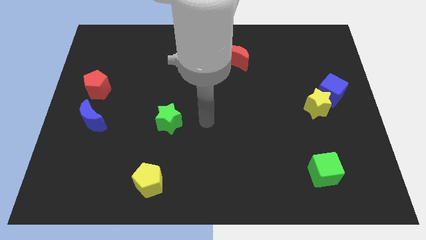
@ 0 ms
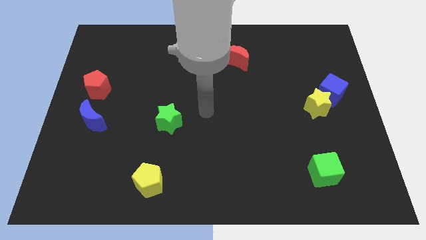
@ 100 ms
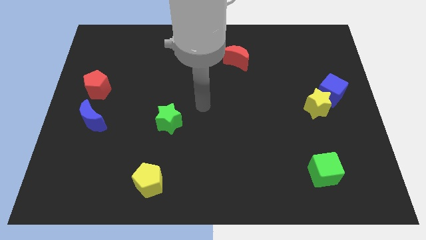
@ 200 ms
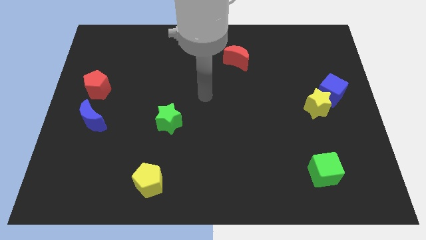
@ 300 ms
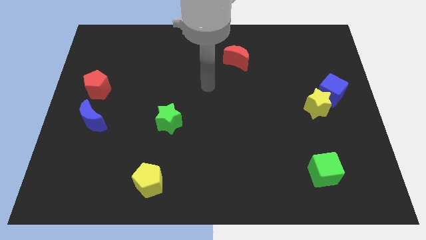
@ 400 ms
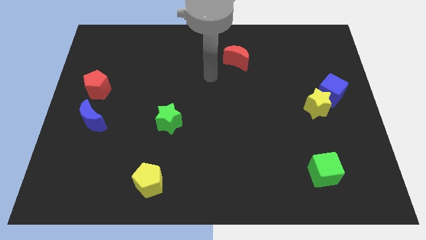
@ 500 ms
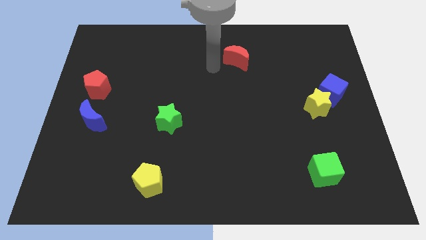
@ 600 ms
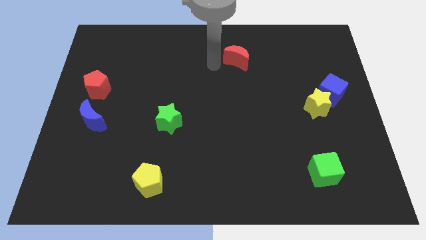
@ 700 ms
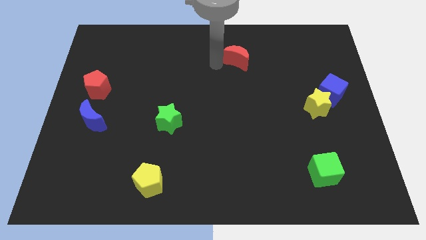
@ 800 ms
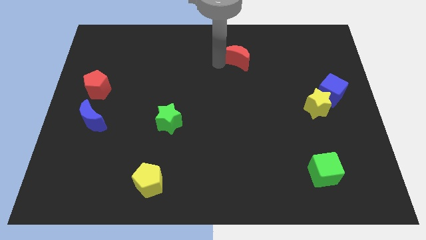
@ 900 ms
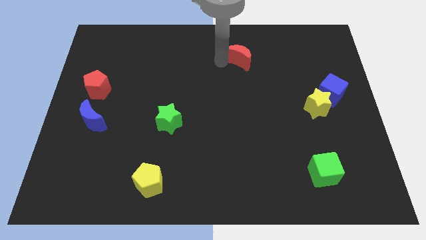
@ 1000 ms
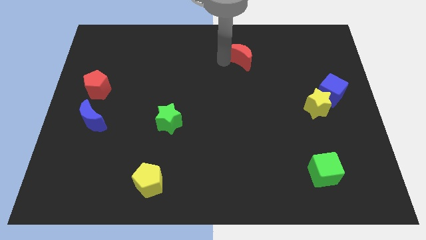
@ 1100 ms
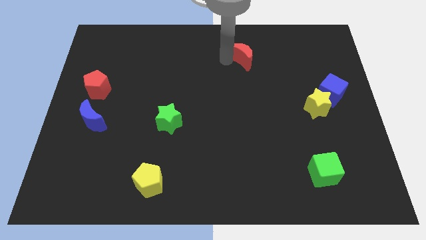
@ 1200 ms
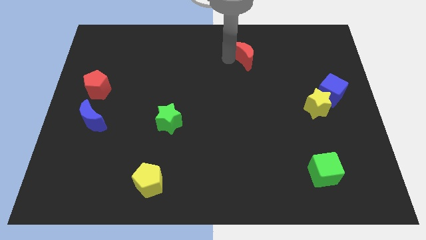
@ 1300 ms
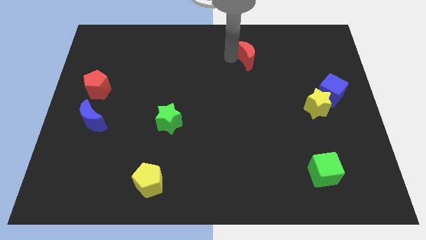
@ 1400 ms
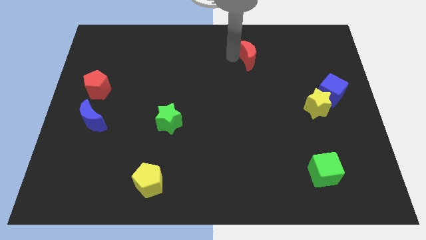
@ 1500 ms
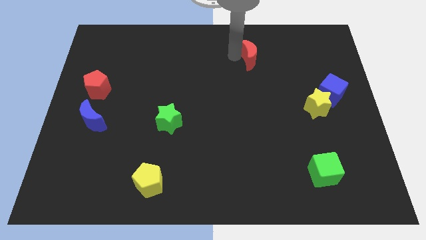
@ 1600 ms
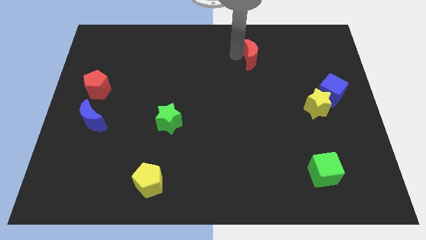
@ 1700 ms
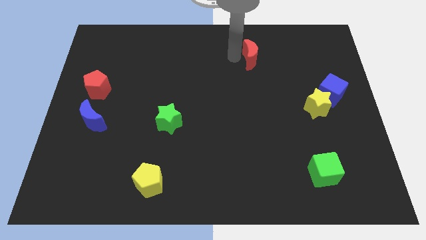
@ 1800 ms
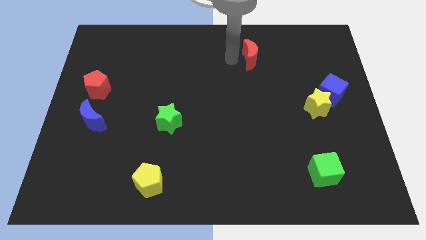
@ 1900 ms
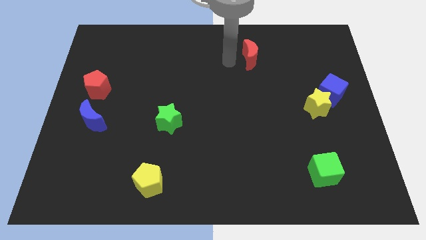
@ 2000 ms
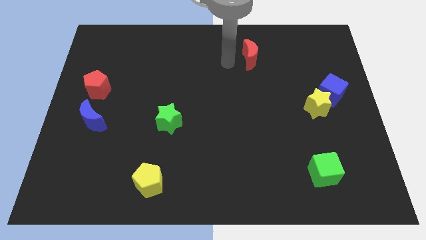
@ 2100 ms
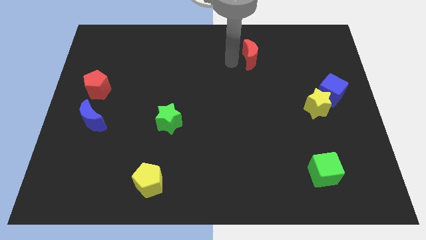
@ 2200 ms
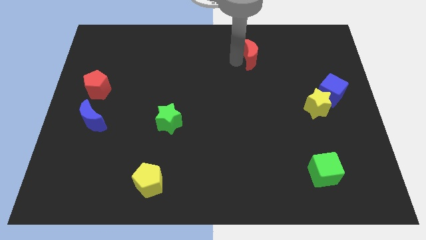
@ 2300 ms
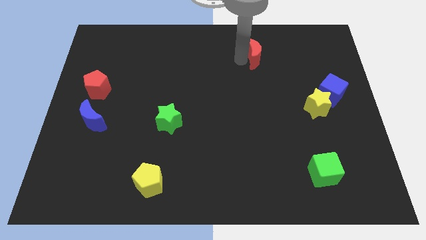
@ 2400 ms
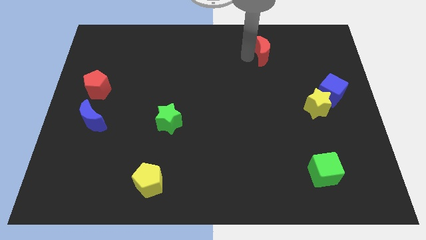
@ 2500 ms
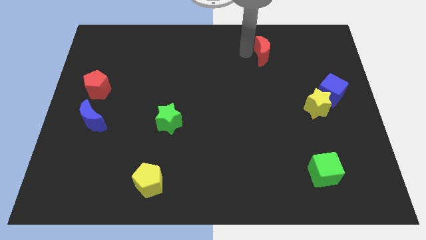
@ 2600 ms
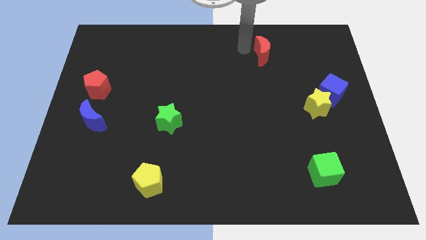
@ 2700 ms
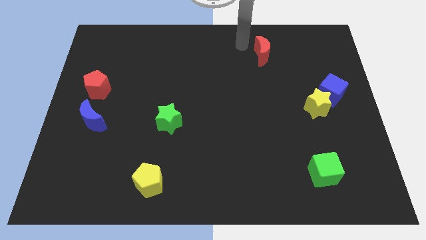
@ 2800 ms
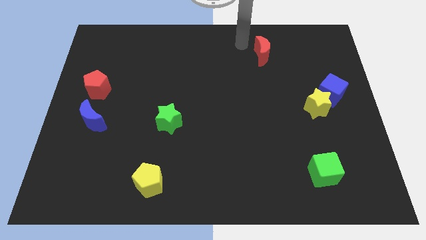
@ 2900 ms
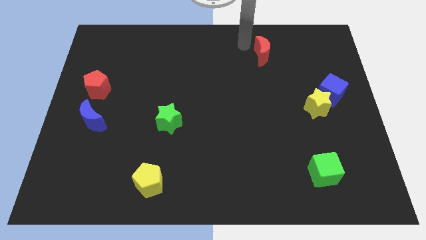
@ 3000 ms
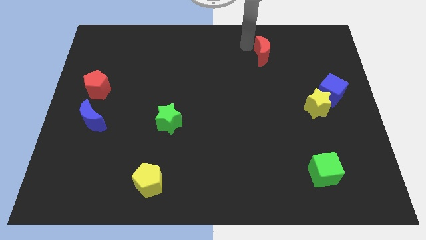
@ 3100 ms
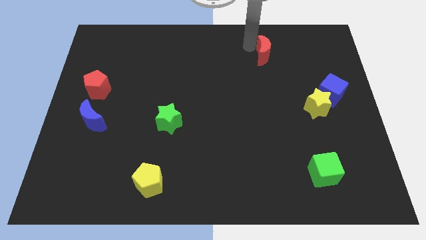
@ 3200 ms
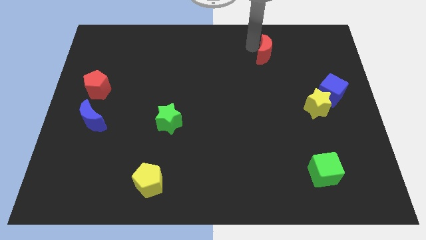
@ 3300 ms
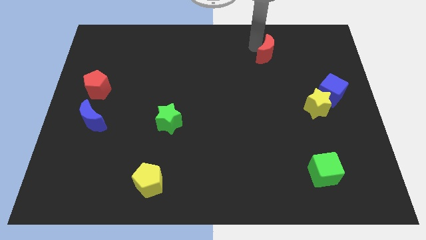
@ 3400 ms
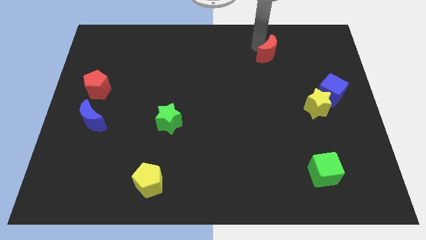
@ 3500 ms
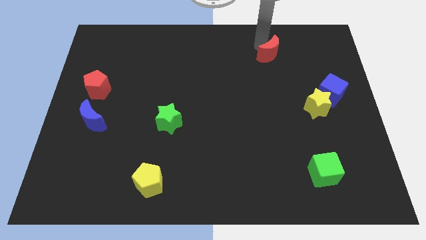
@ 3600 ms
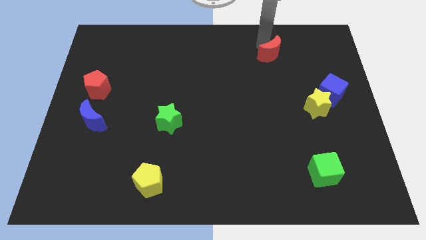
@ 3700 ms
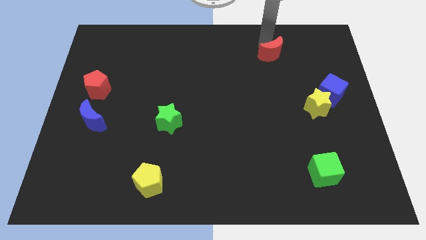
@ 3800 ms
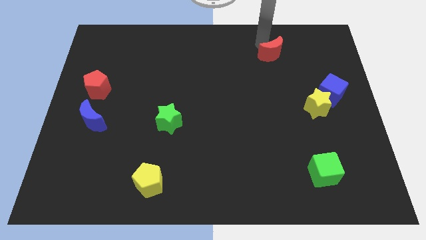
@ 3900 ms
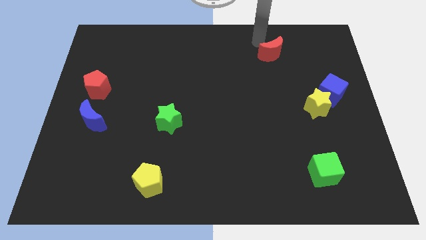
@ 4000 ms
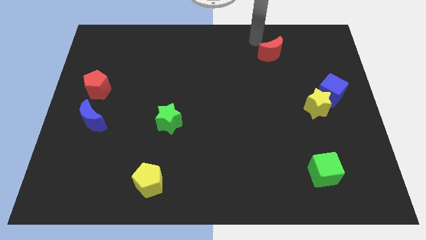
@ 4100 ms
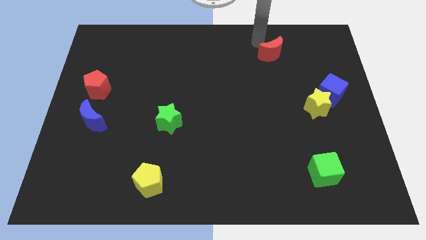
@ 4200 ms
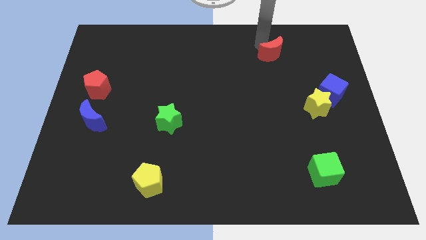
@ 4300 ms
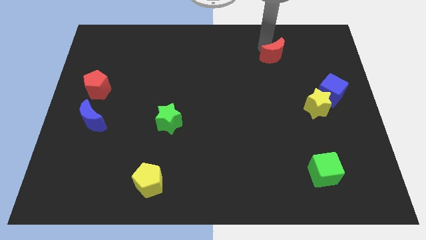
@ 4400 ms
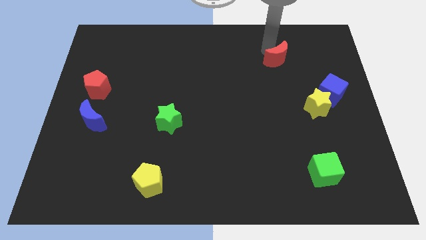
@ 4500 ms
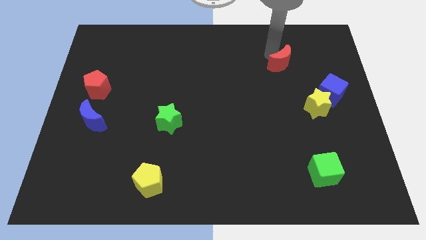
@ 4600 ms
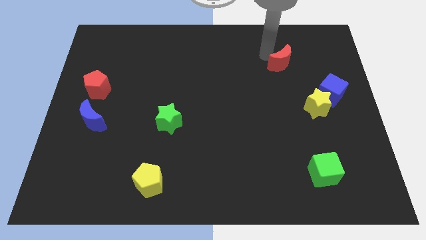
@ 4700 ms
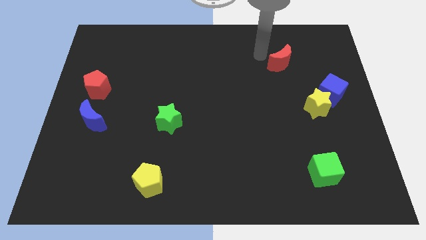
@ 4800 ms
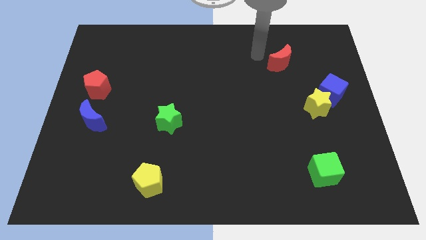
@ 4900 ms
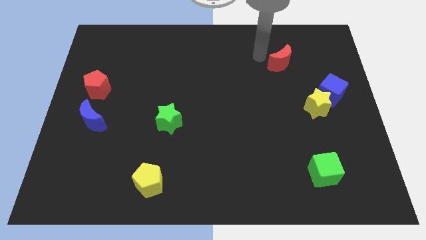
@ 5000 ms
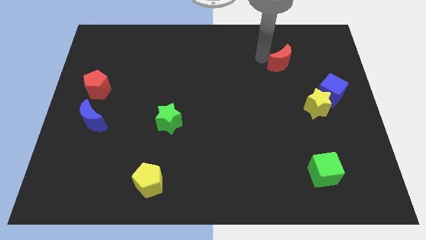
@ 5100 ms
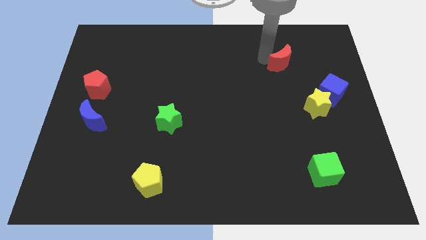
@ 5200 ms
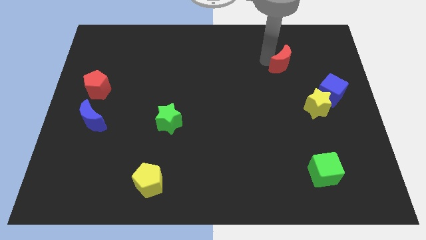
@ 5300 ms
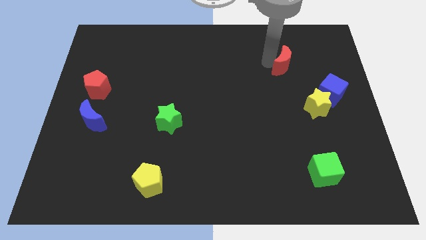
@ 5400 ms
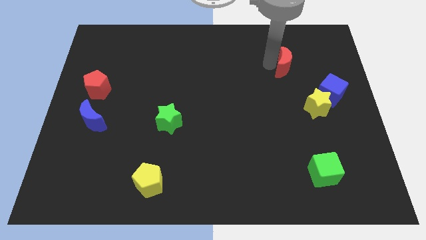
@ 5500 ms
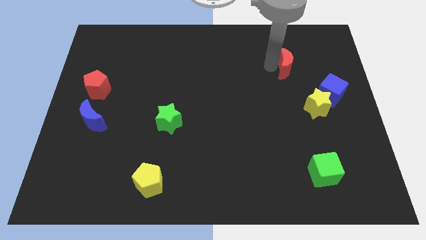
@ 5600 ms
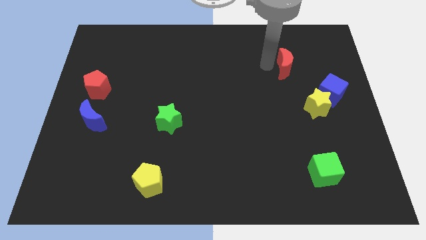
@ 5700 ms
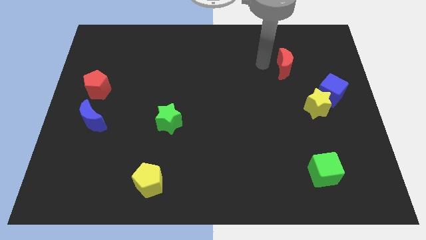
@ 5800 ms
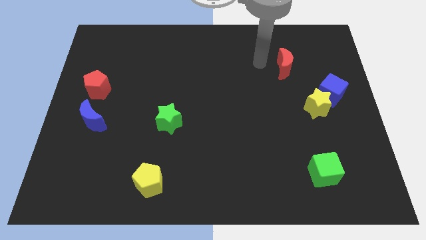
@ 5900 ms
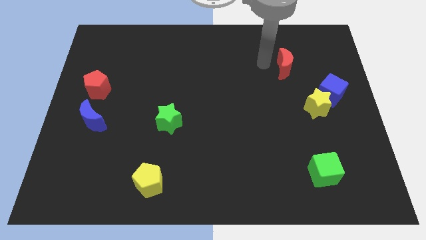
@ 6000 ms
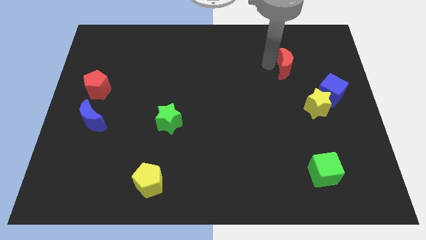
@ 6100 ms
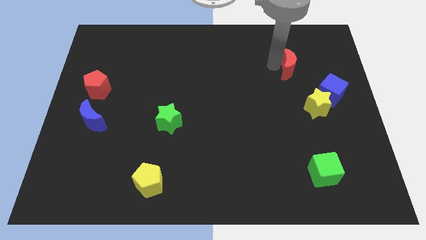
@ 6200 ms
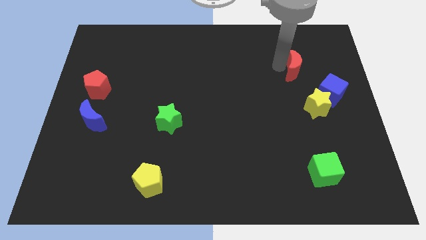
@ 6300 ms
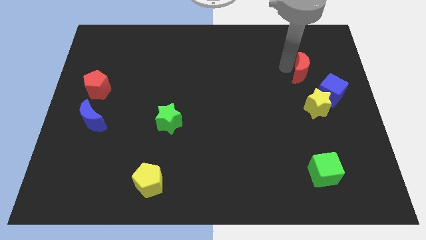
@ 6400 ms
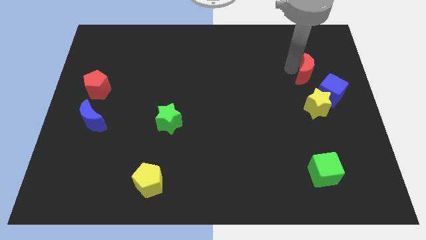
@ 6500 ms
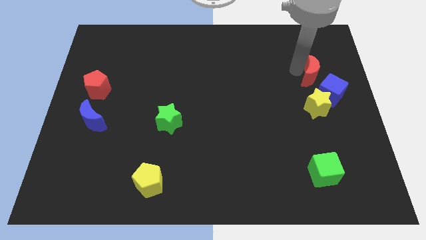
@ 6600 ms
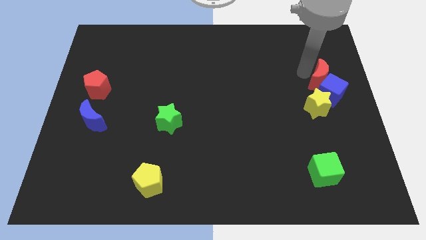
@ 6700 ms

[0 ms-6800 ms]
push the red moon to the right side of the board
